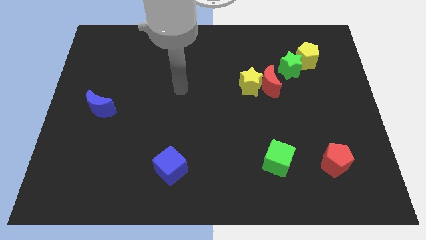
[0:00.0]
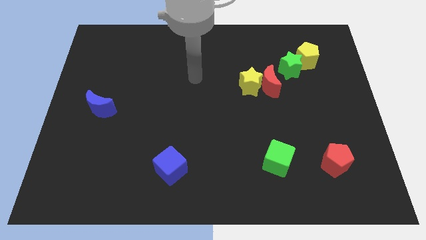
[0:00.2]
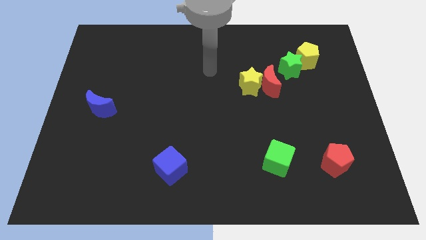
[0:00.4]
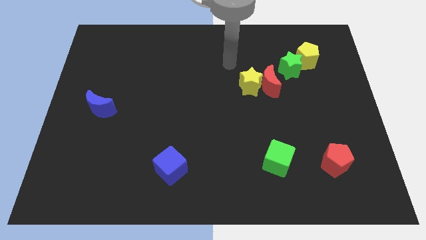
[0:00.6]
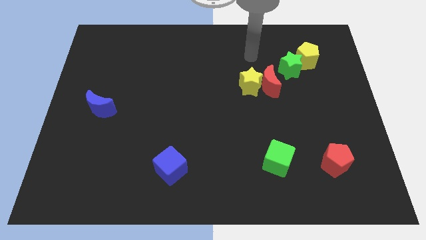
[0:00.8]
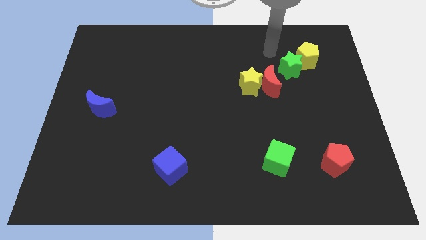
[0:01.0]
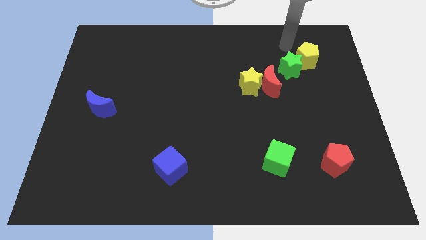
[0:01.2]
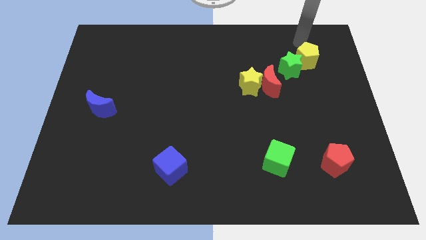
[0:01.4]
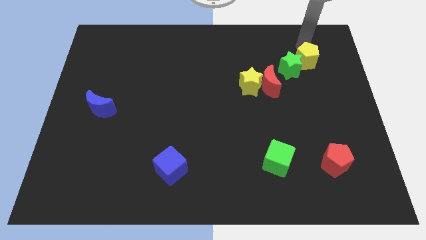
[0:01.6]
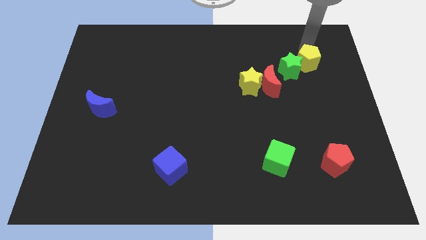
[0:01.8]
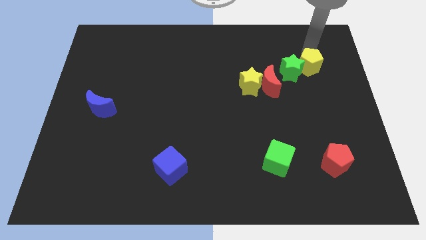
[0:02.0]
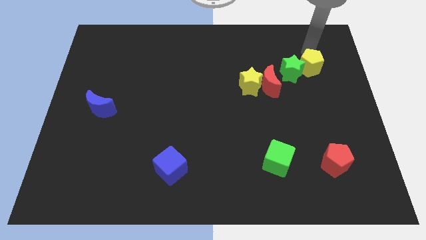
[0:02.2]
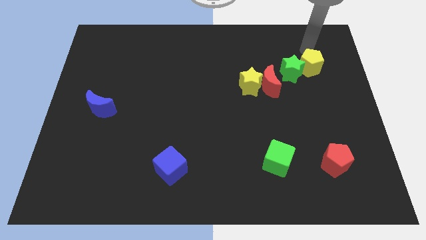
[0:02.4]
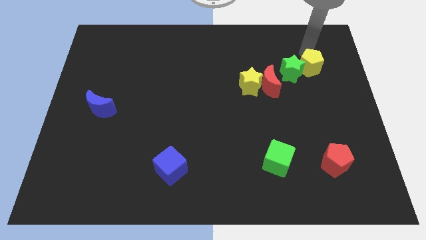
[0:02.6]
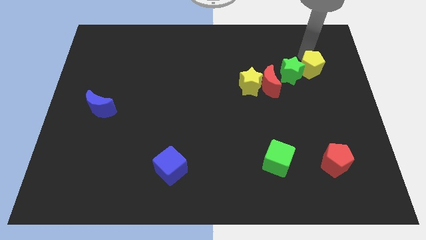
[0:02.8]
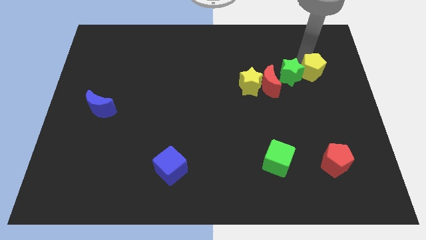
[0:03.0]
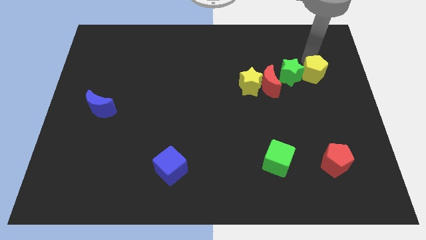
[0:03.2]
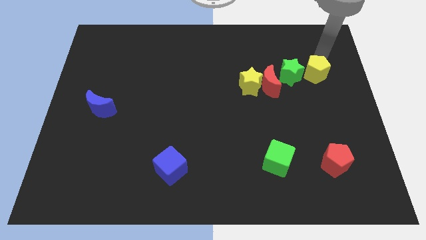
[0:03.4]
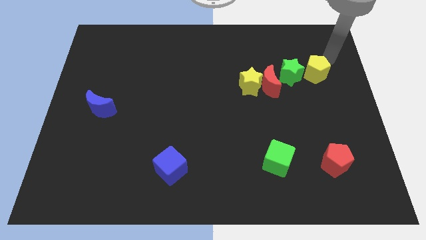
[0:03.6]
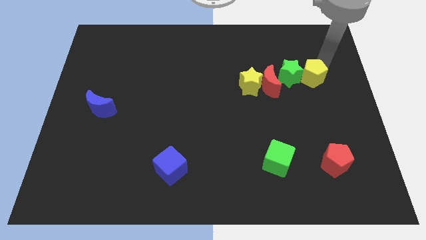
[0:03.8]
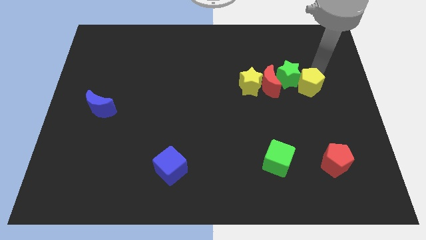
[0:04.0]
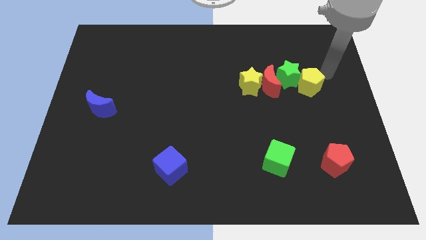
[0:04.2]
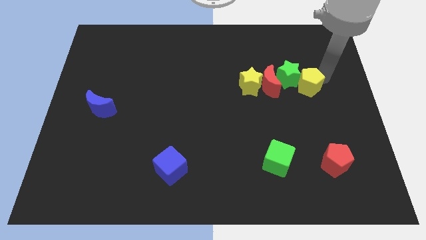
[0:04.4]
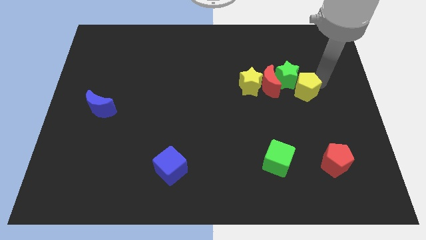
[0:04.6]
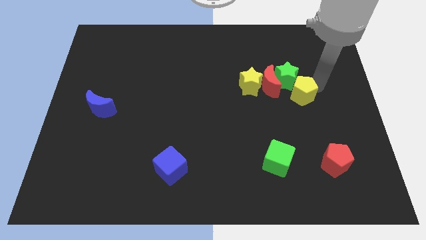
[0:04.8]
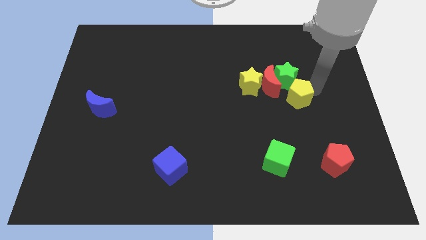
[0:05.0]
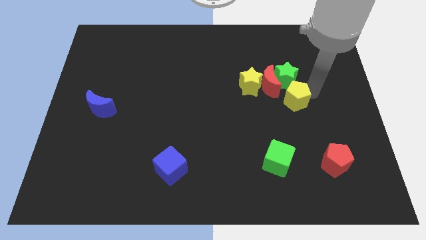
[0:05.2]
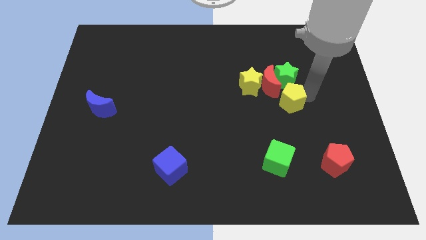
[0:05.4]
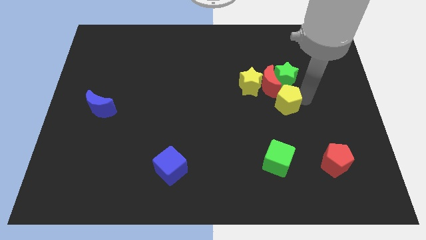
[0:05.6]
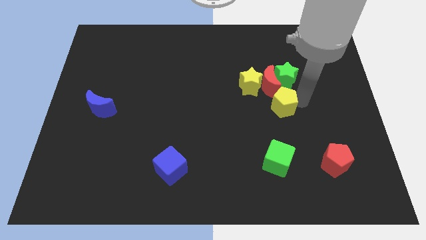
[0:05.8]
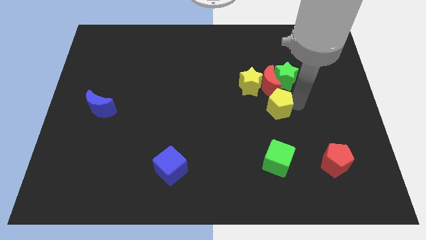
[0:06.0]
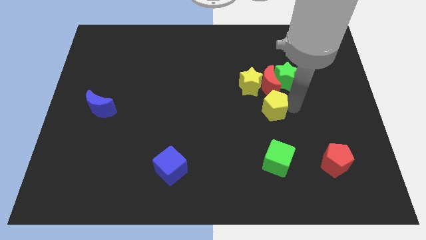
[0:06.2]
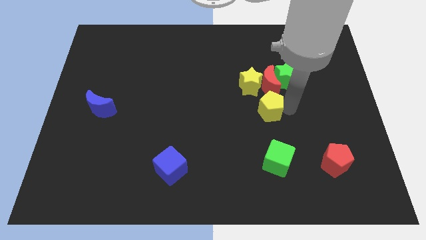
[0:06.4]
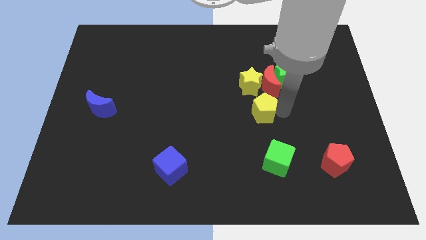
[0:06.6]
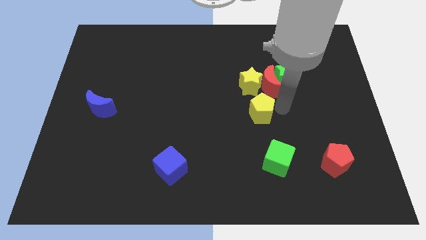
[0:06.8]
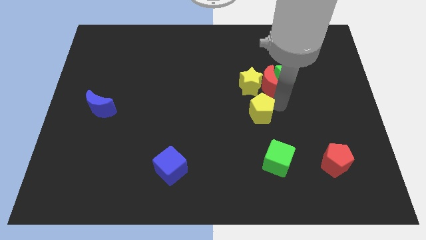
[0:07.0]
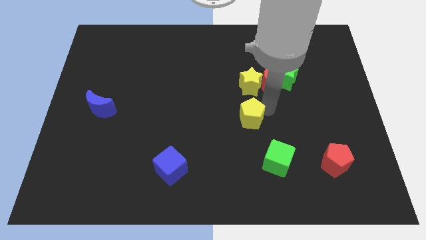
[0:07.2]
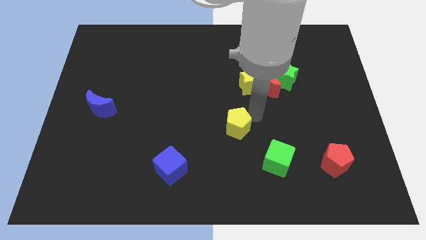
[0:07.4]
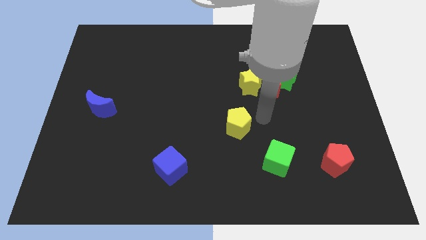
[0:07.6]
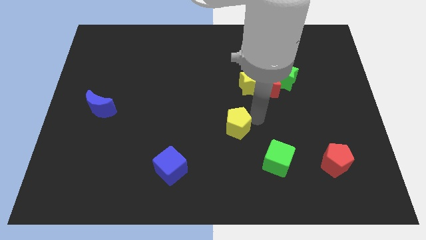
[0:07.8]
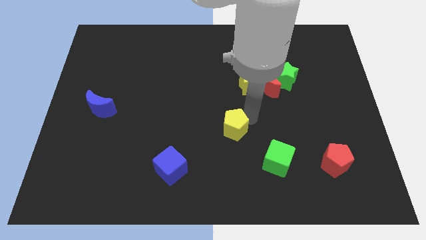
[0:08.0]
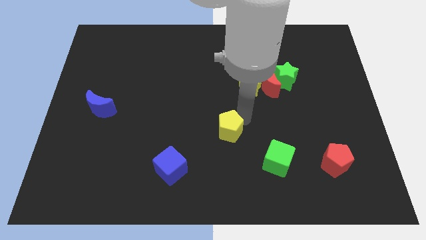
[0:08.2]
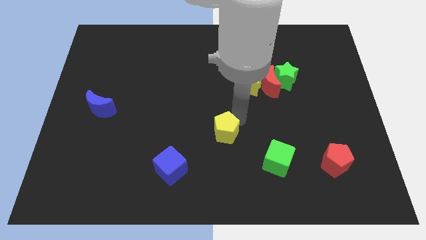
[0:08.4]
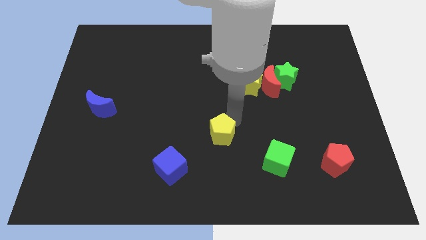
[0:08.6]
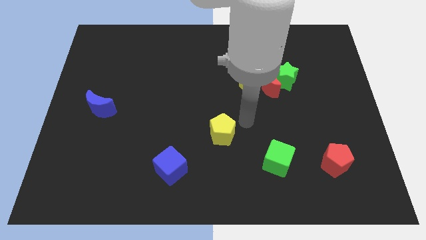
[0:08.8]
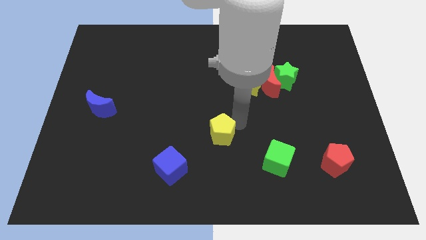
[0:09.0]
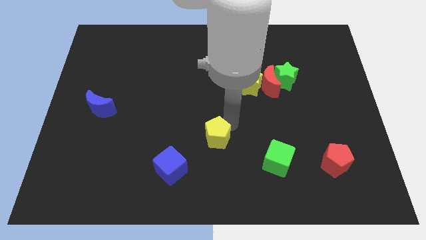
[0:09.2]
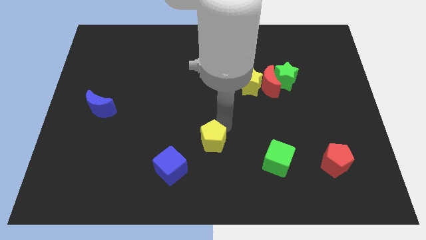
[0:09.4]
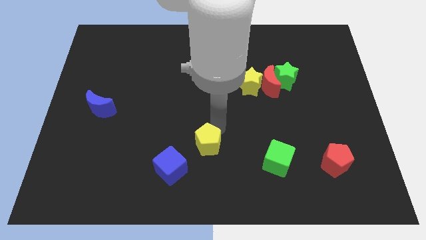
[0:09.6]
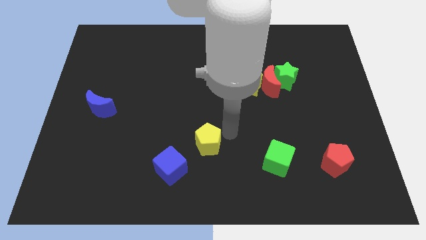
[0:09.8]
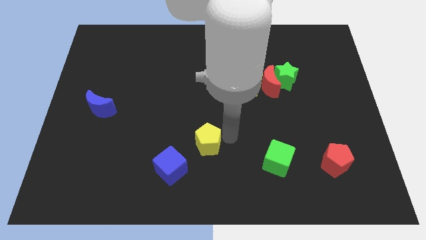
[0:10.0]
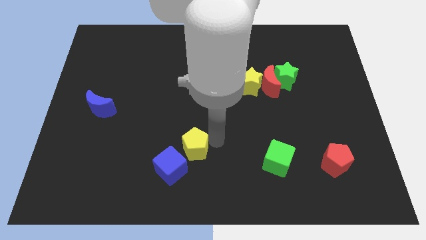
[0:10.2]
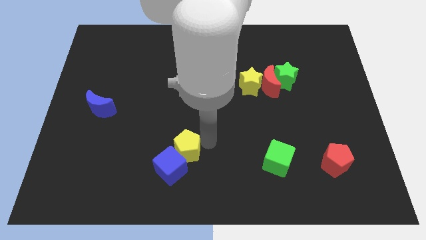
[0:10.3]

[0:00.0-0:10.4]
push the yellow pentagon close to the blue cube

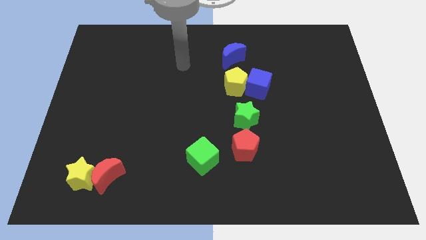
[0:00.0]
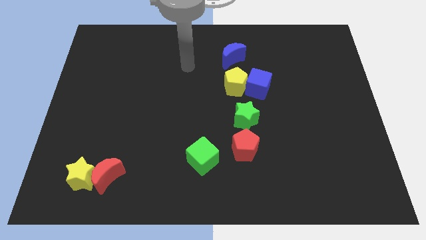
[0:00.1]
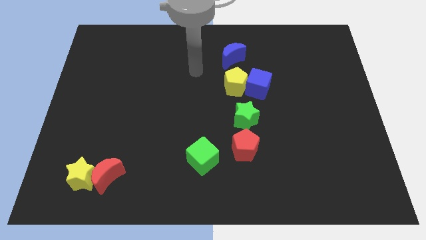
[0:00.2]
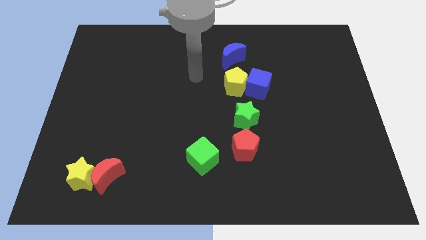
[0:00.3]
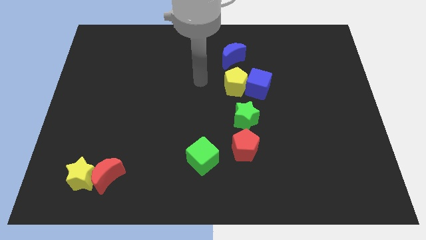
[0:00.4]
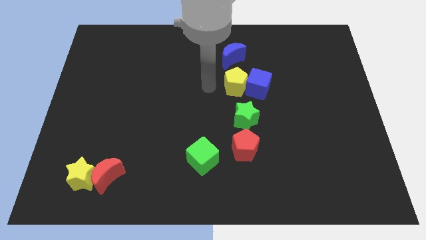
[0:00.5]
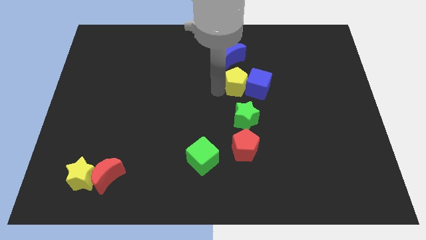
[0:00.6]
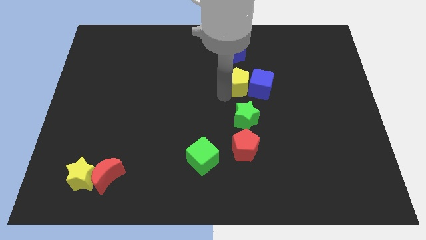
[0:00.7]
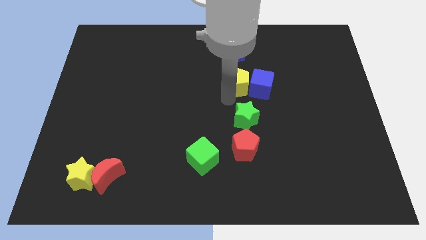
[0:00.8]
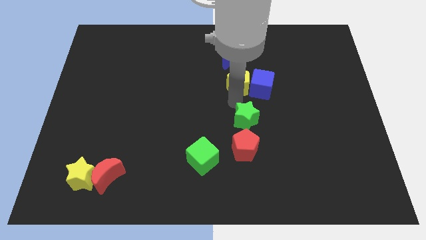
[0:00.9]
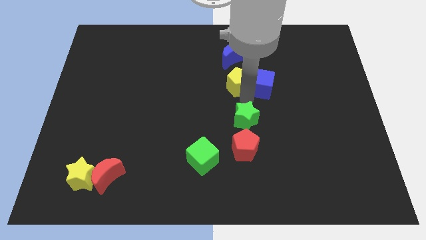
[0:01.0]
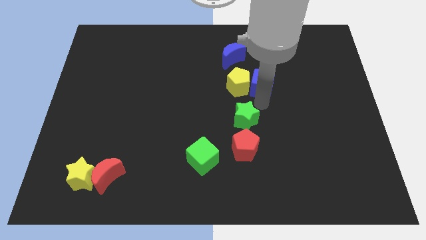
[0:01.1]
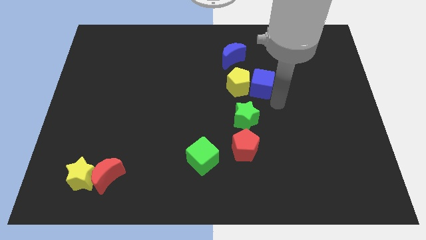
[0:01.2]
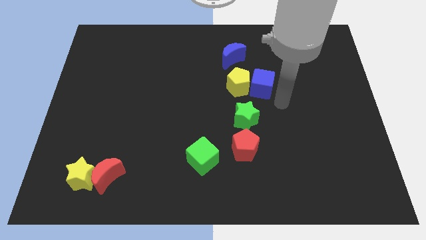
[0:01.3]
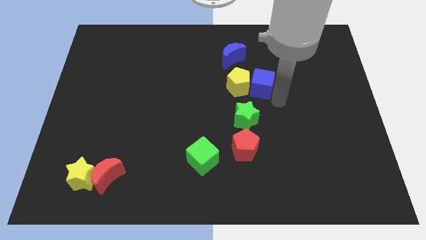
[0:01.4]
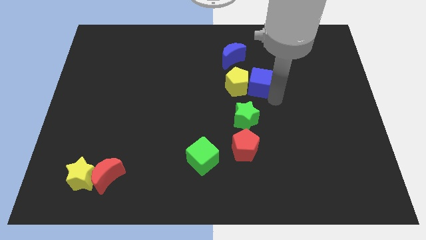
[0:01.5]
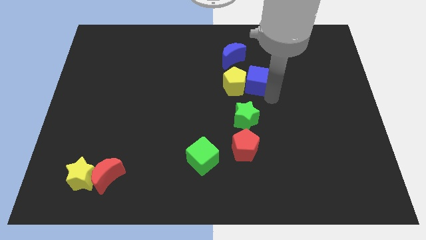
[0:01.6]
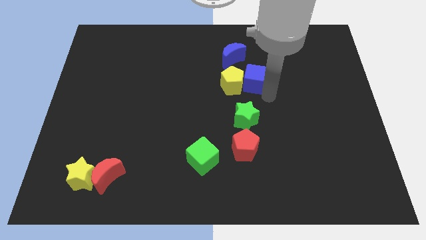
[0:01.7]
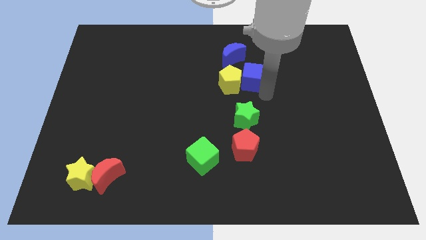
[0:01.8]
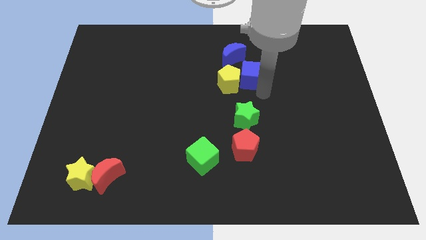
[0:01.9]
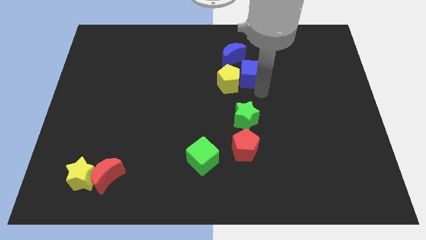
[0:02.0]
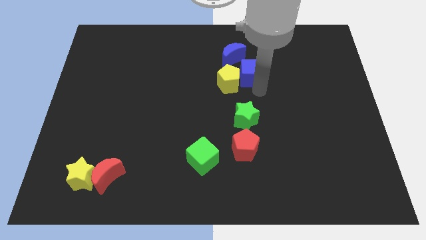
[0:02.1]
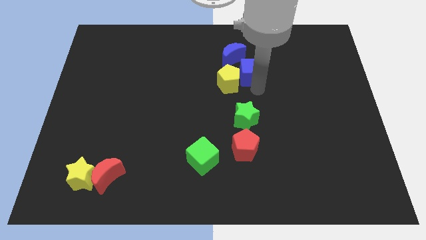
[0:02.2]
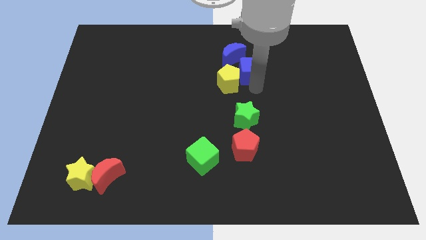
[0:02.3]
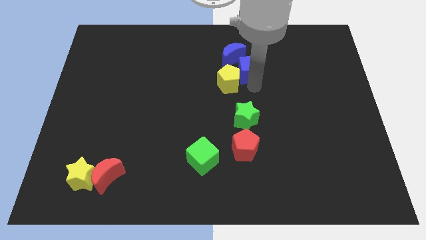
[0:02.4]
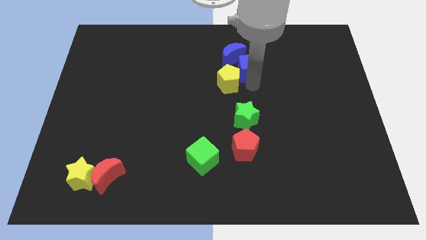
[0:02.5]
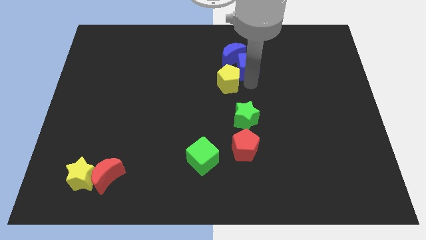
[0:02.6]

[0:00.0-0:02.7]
move the blue cube next to the blue moon
